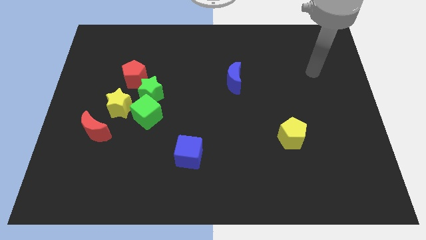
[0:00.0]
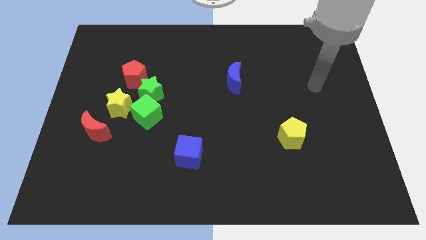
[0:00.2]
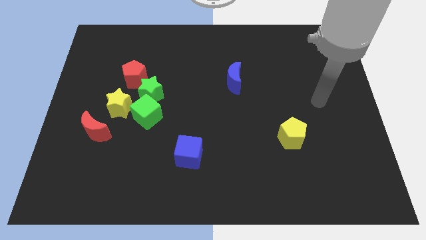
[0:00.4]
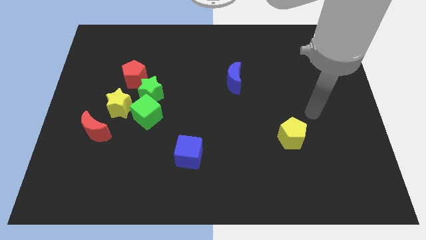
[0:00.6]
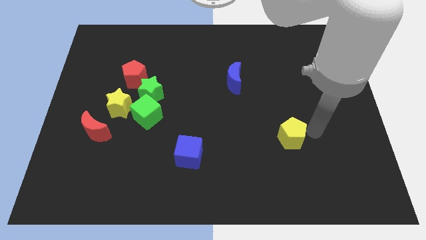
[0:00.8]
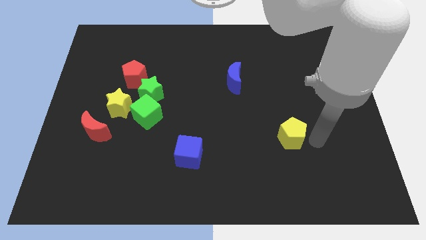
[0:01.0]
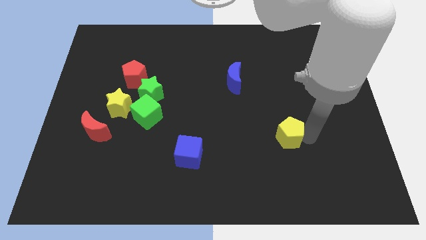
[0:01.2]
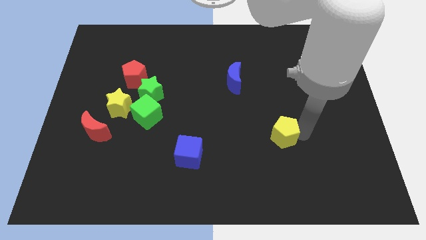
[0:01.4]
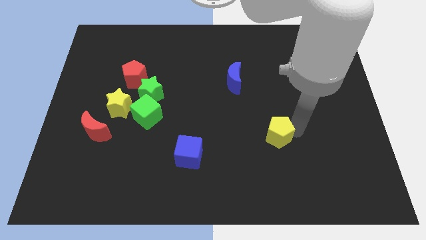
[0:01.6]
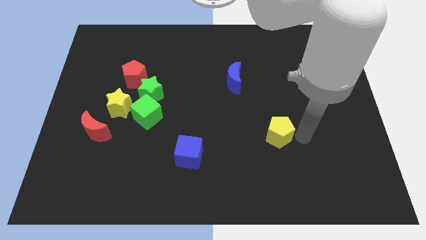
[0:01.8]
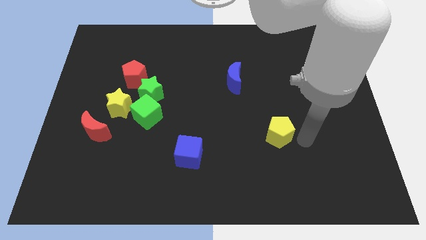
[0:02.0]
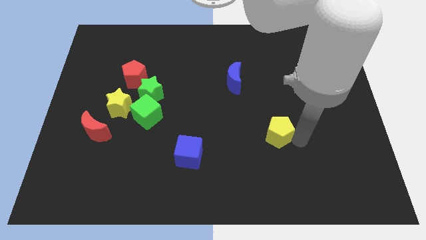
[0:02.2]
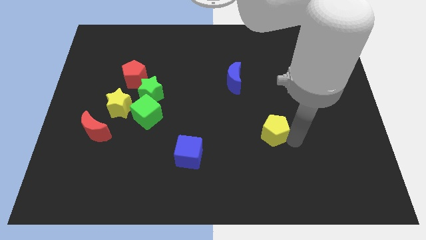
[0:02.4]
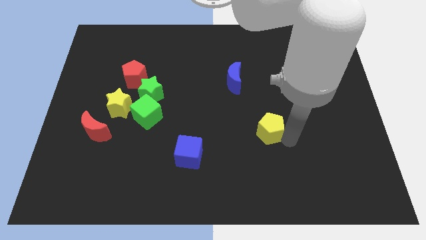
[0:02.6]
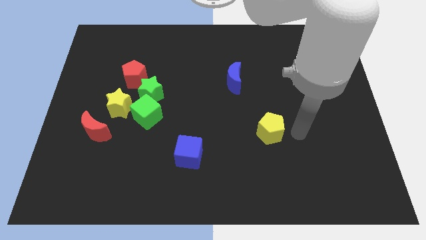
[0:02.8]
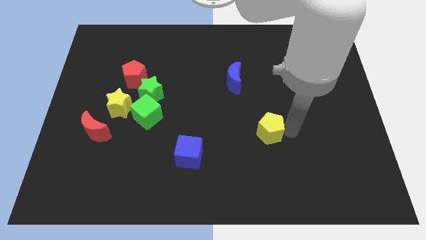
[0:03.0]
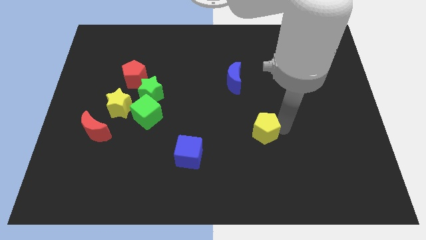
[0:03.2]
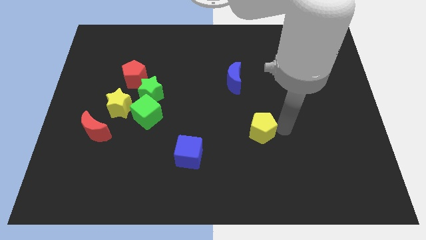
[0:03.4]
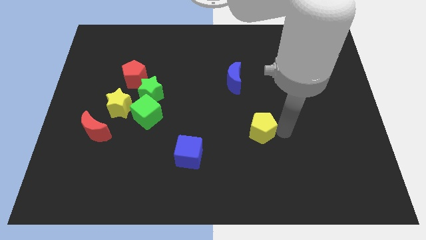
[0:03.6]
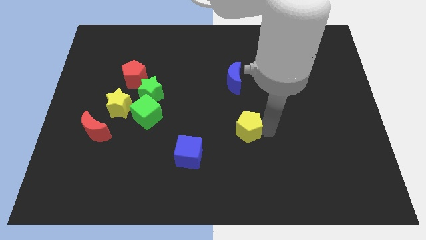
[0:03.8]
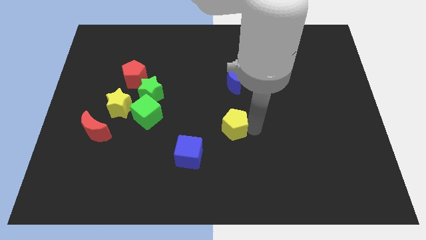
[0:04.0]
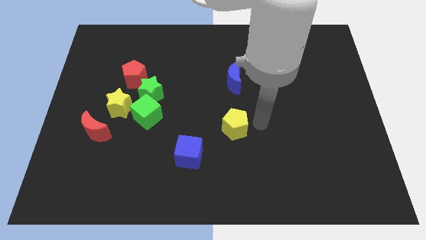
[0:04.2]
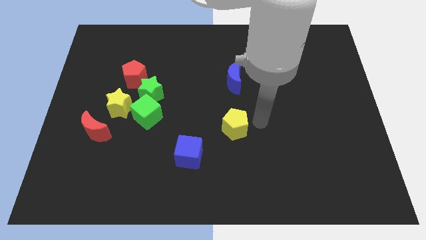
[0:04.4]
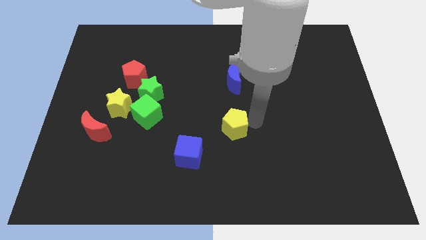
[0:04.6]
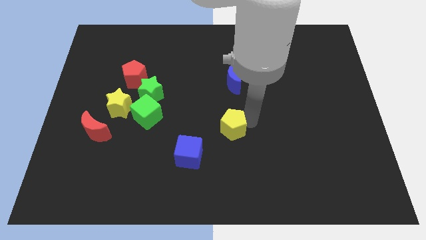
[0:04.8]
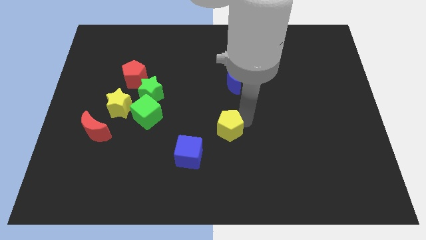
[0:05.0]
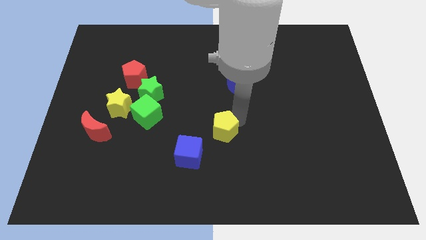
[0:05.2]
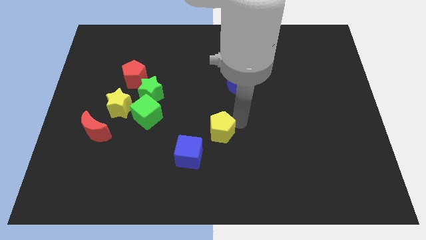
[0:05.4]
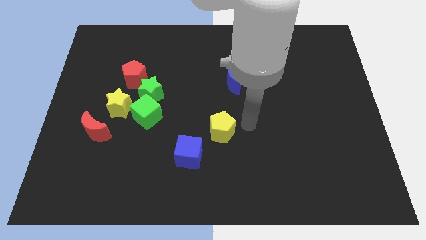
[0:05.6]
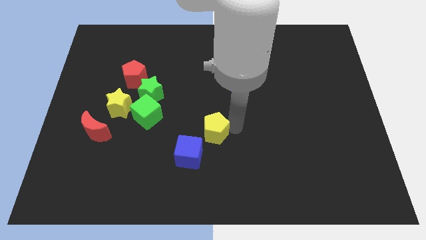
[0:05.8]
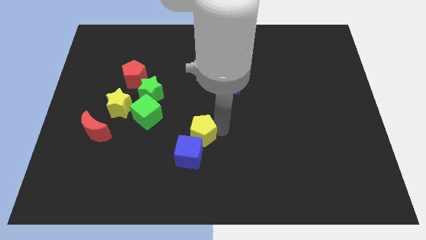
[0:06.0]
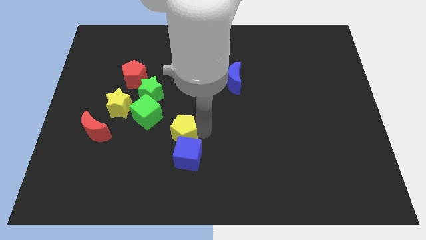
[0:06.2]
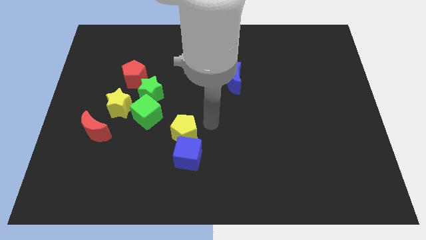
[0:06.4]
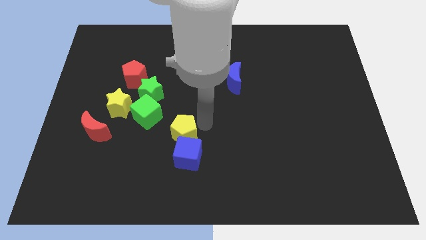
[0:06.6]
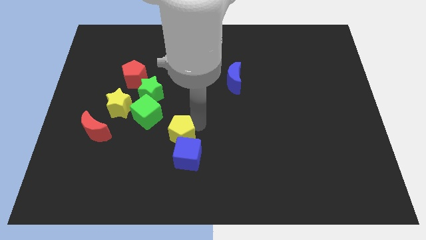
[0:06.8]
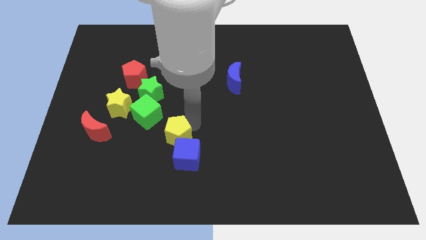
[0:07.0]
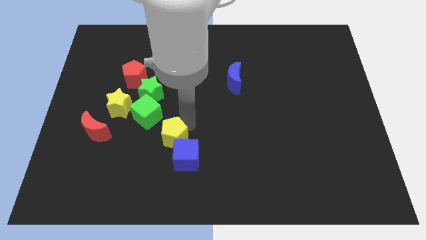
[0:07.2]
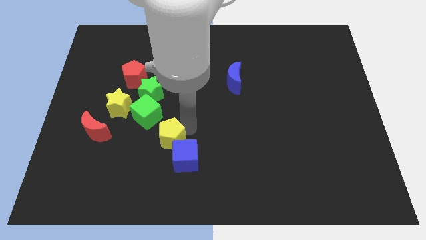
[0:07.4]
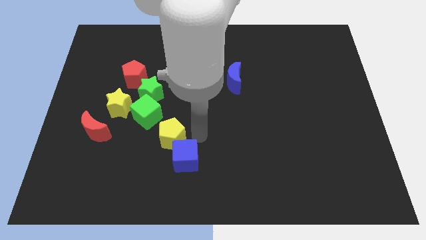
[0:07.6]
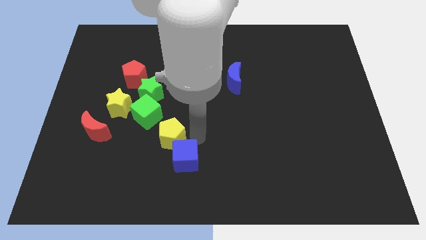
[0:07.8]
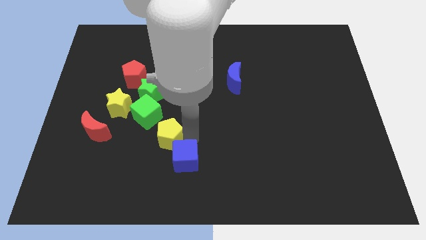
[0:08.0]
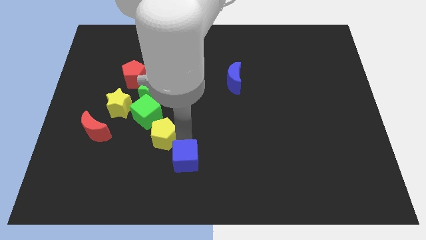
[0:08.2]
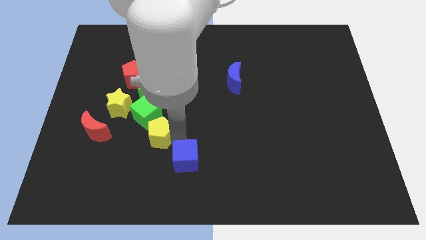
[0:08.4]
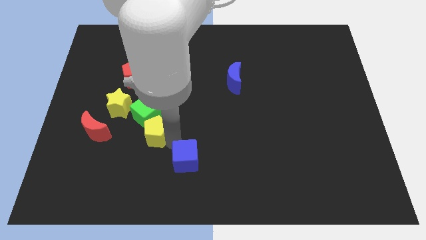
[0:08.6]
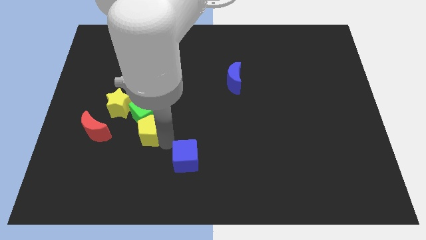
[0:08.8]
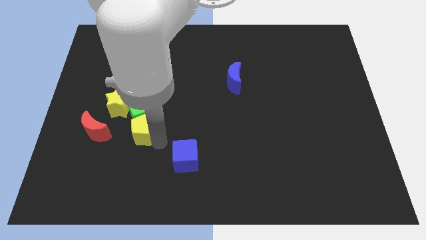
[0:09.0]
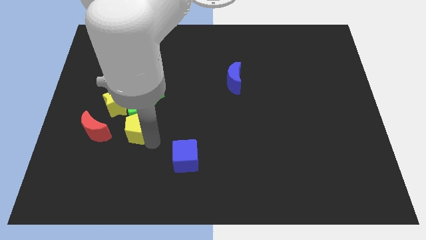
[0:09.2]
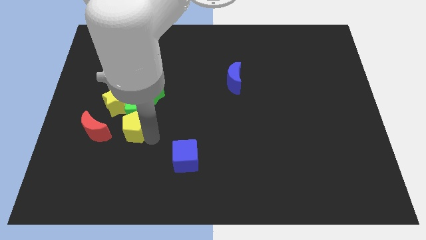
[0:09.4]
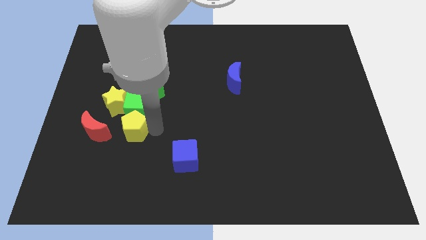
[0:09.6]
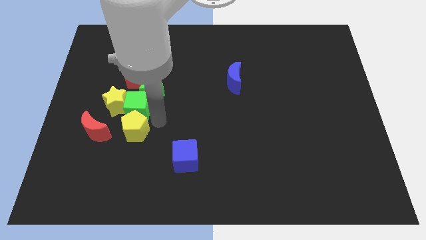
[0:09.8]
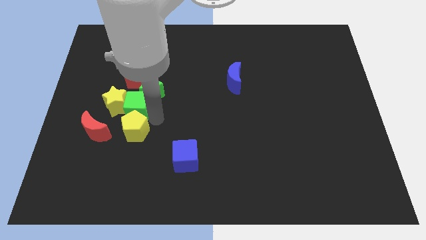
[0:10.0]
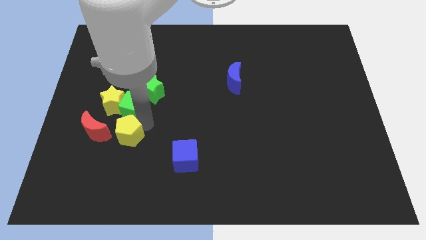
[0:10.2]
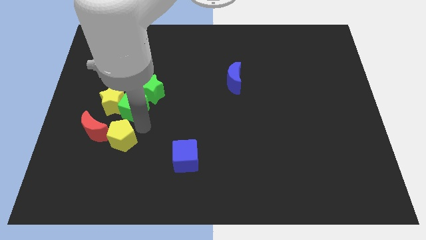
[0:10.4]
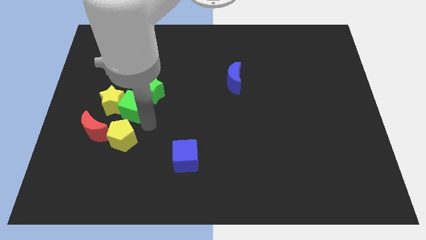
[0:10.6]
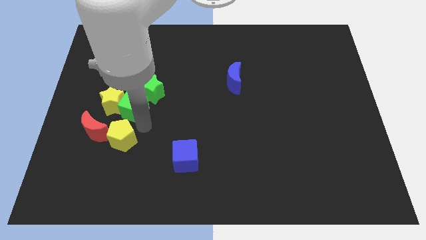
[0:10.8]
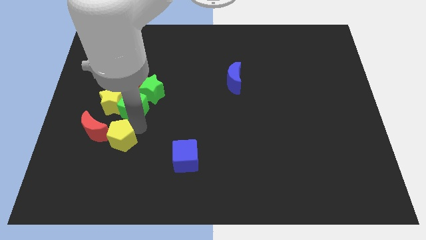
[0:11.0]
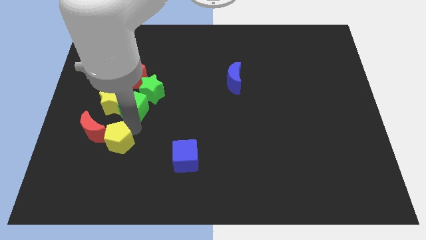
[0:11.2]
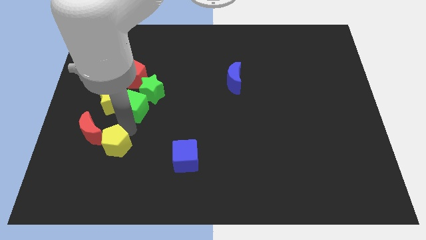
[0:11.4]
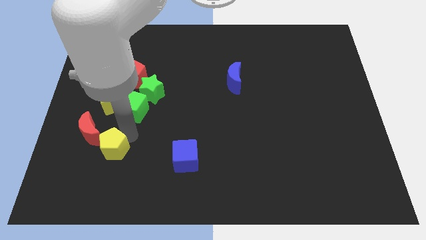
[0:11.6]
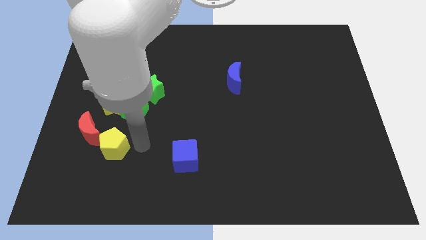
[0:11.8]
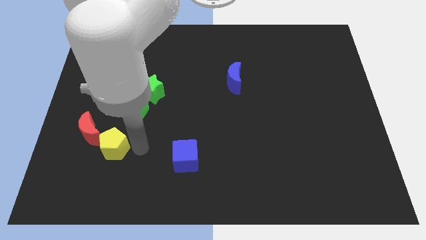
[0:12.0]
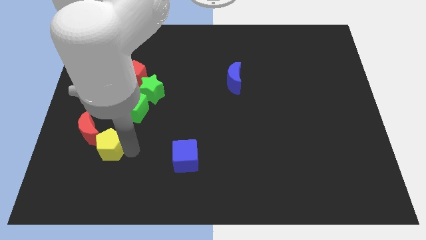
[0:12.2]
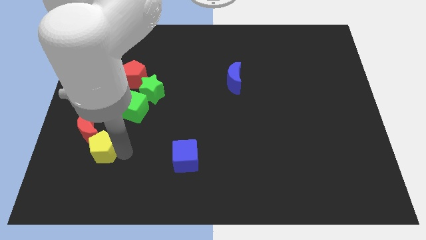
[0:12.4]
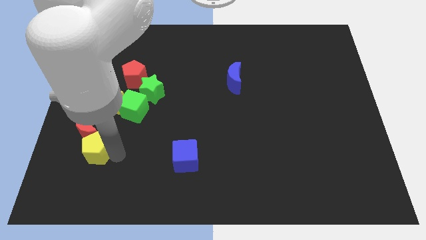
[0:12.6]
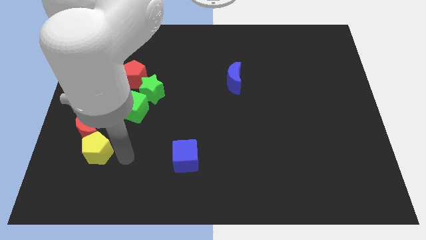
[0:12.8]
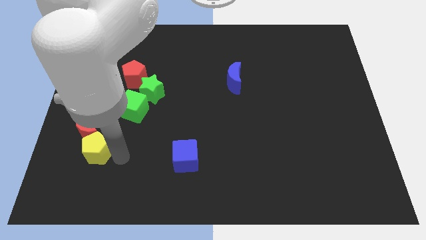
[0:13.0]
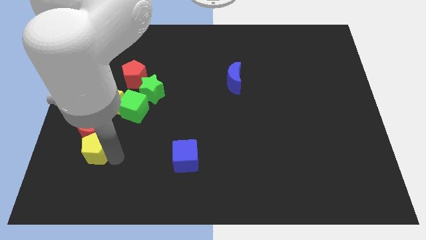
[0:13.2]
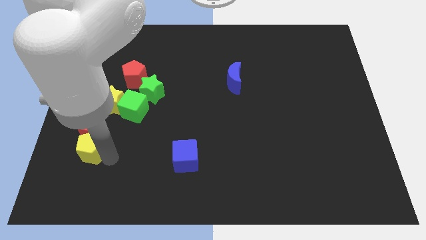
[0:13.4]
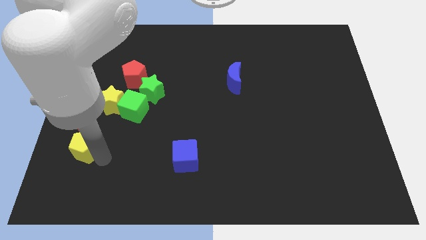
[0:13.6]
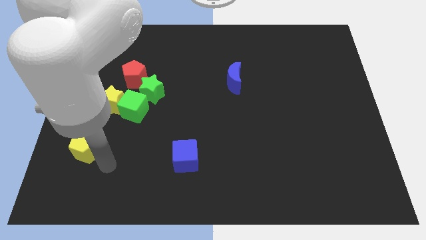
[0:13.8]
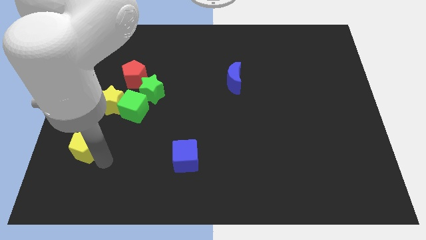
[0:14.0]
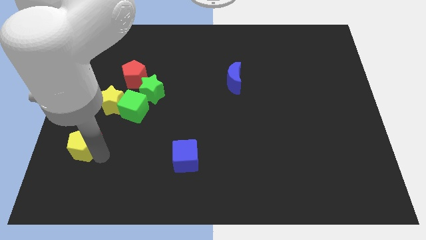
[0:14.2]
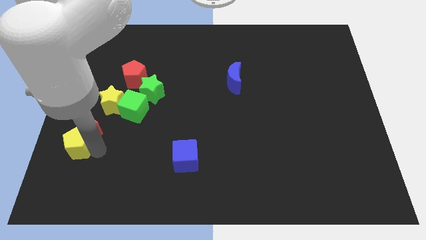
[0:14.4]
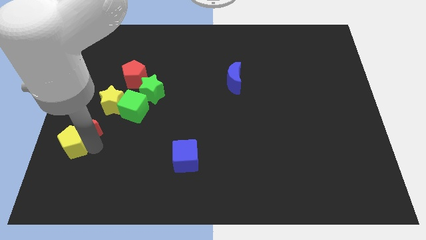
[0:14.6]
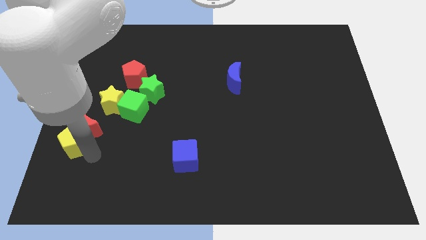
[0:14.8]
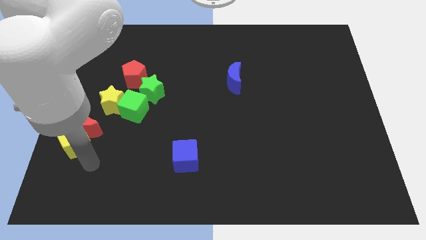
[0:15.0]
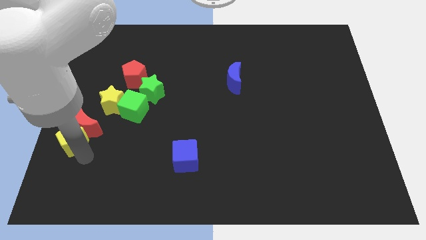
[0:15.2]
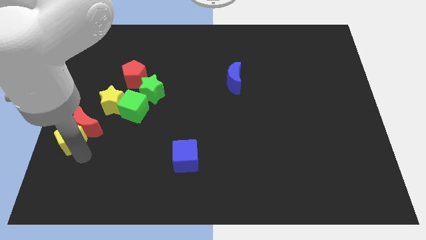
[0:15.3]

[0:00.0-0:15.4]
put the yellow pentagon to the left side
